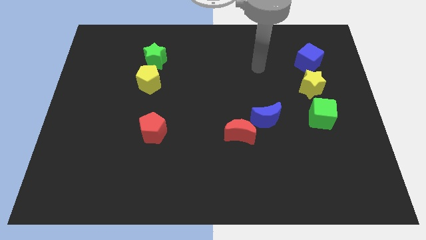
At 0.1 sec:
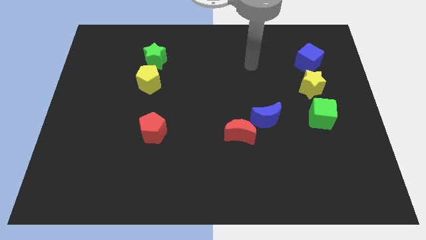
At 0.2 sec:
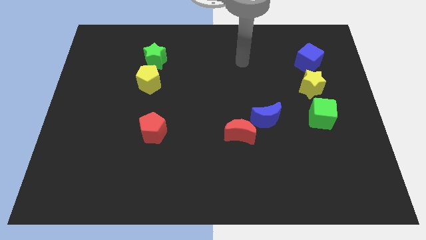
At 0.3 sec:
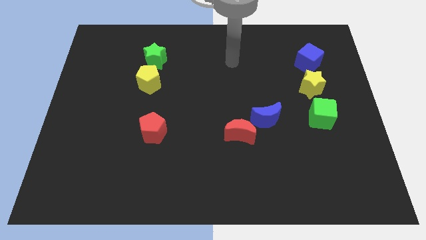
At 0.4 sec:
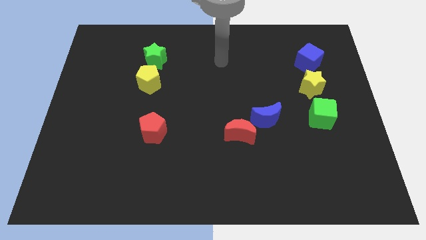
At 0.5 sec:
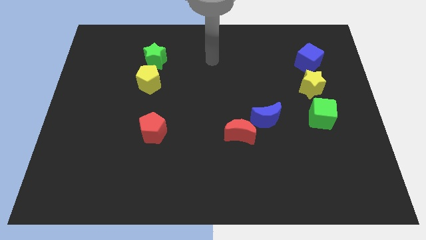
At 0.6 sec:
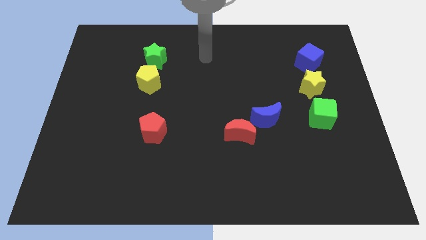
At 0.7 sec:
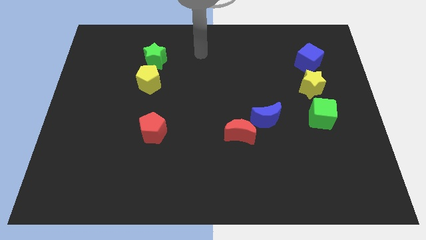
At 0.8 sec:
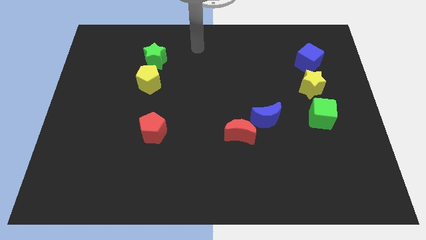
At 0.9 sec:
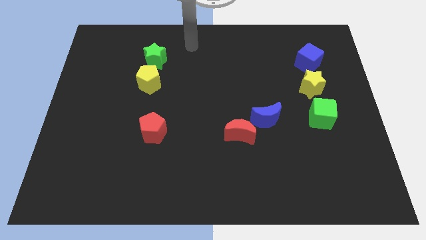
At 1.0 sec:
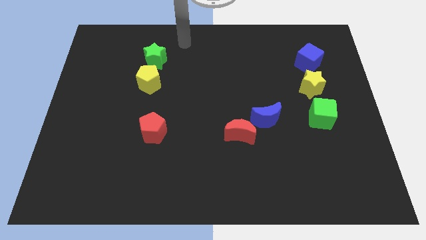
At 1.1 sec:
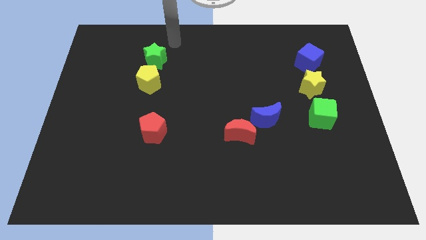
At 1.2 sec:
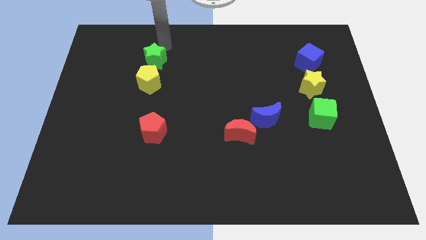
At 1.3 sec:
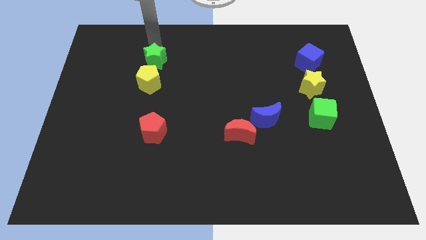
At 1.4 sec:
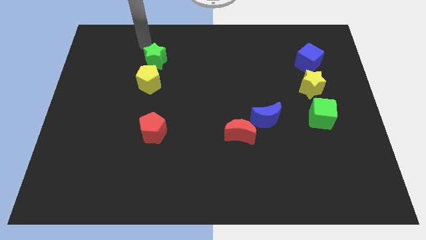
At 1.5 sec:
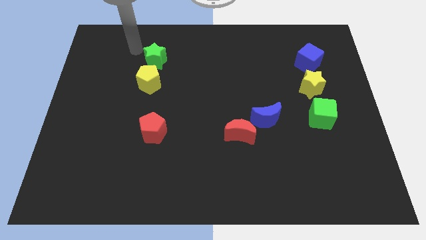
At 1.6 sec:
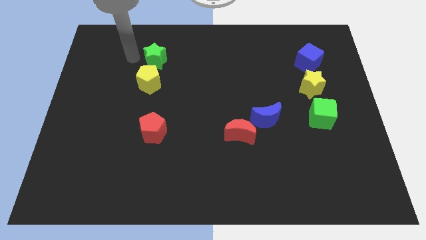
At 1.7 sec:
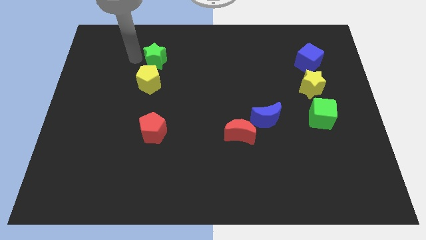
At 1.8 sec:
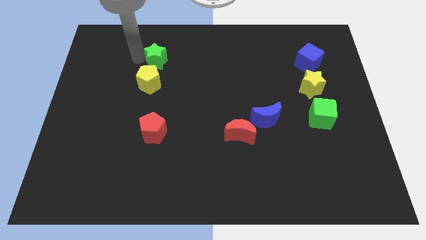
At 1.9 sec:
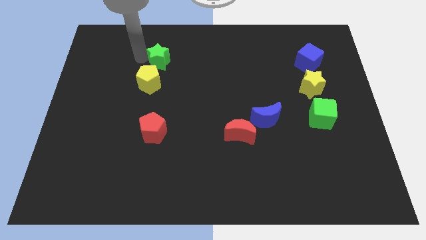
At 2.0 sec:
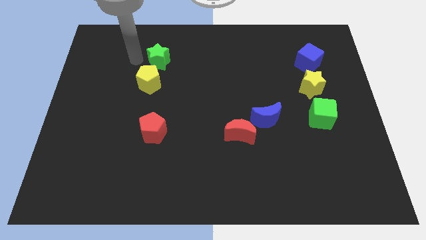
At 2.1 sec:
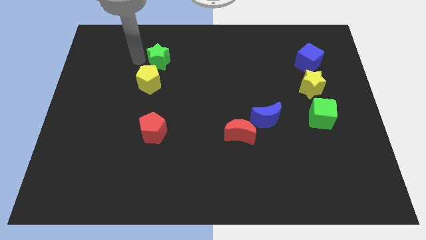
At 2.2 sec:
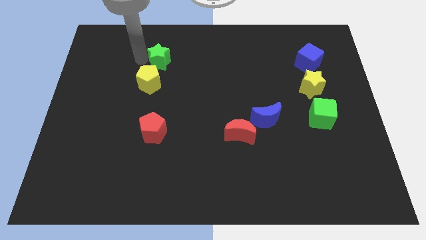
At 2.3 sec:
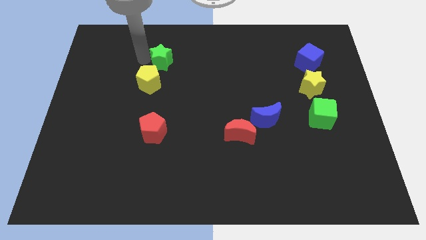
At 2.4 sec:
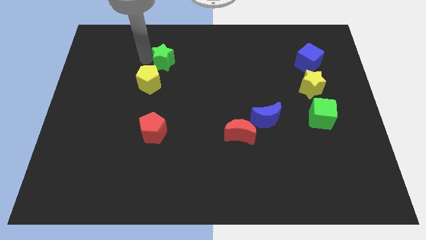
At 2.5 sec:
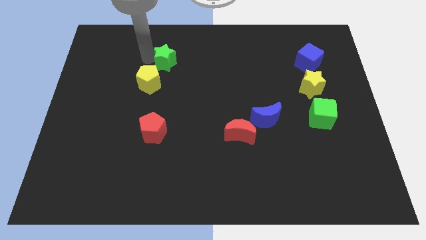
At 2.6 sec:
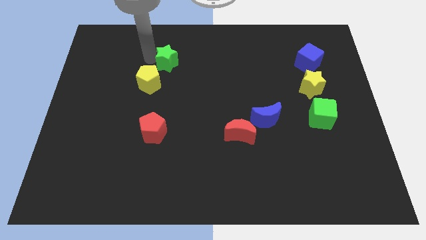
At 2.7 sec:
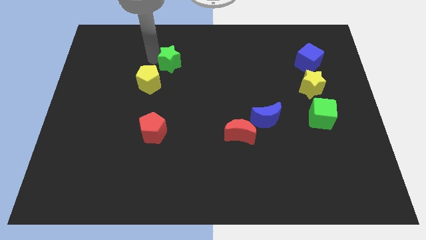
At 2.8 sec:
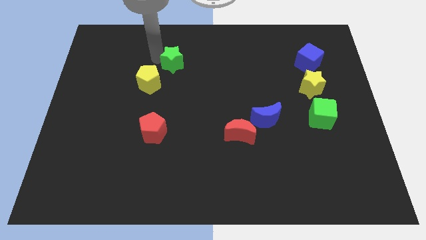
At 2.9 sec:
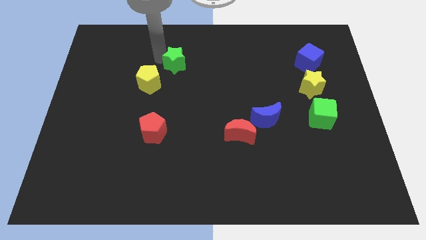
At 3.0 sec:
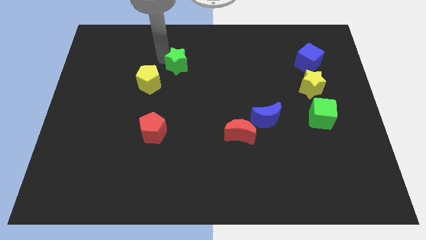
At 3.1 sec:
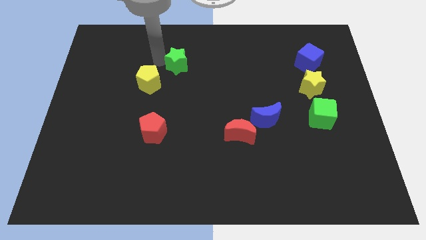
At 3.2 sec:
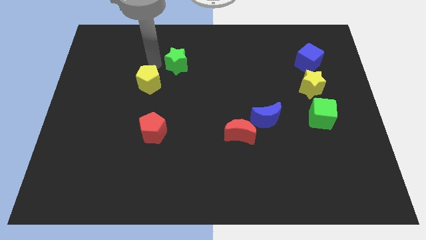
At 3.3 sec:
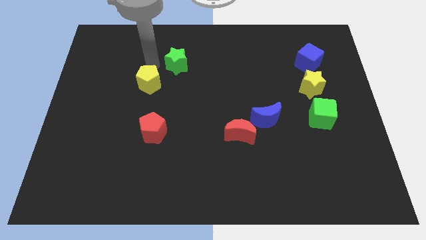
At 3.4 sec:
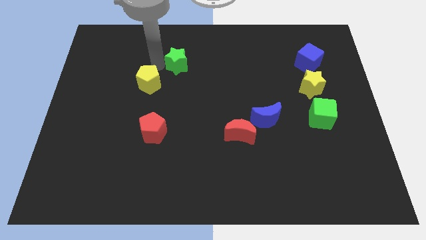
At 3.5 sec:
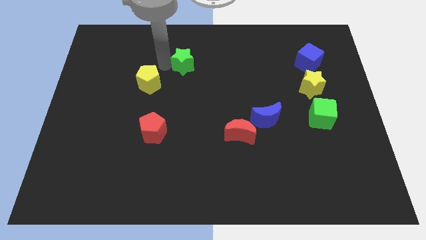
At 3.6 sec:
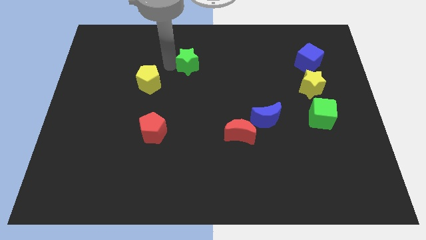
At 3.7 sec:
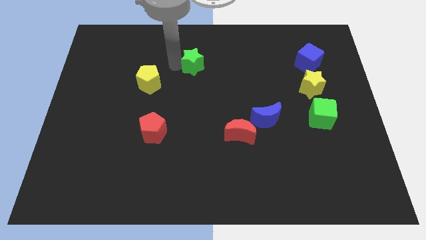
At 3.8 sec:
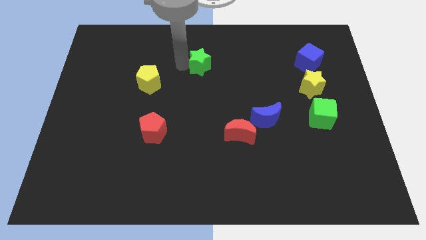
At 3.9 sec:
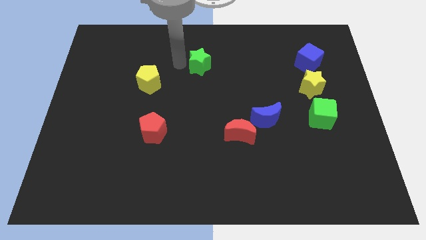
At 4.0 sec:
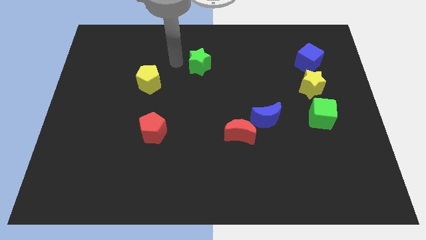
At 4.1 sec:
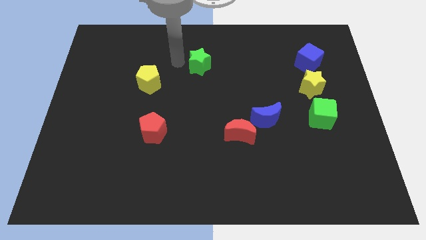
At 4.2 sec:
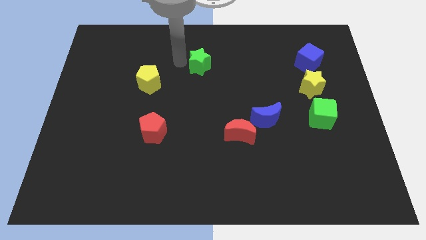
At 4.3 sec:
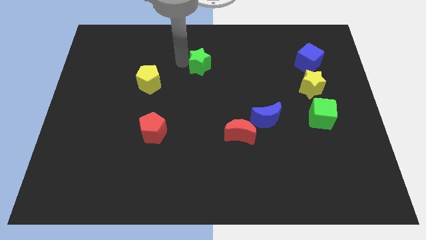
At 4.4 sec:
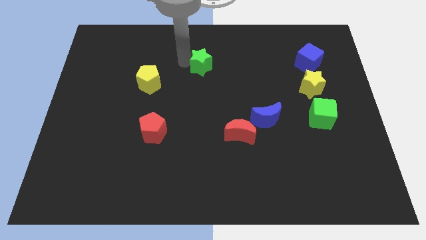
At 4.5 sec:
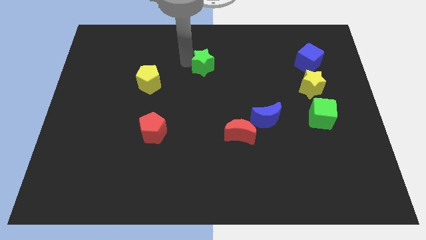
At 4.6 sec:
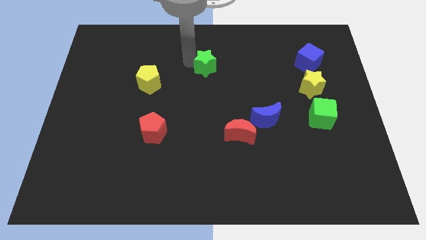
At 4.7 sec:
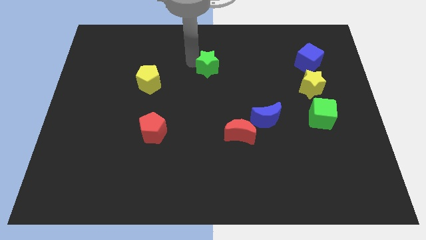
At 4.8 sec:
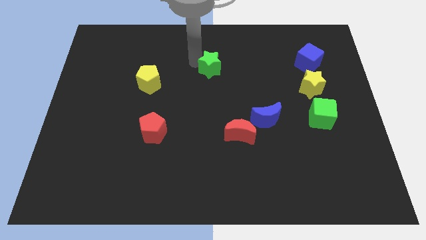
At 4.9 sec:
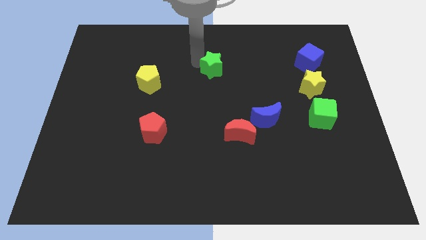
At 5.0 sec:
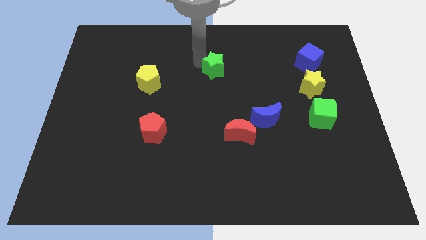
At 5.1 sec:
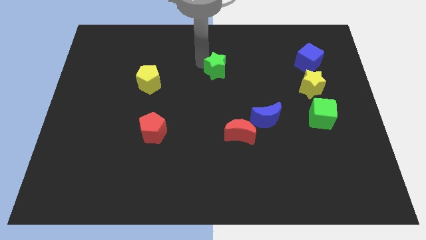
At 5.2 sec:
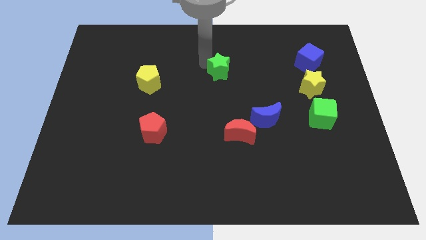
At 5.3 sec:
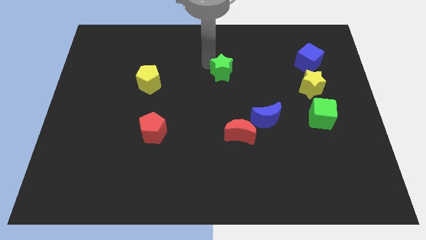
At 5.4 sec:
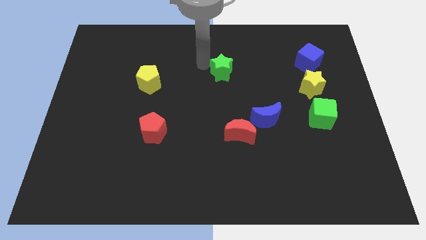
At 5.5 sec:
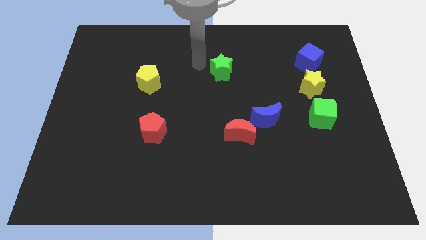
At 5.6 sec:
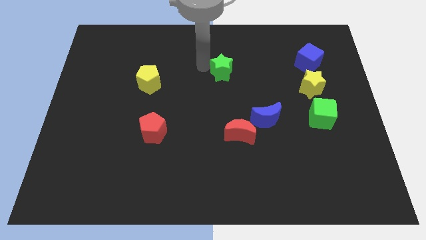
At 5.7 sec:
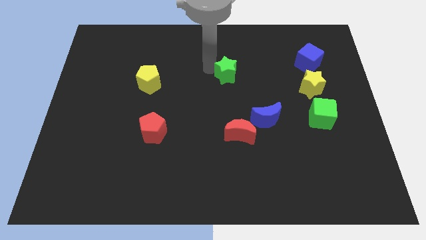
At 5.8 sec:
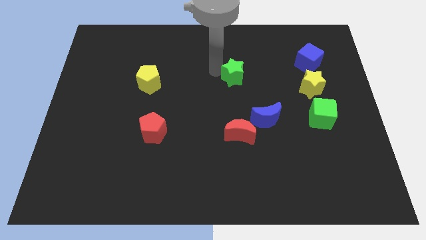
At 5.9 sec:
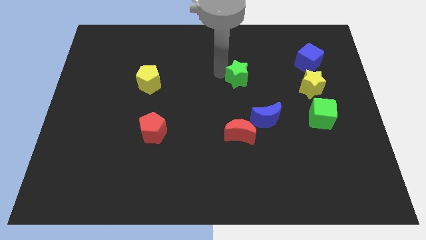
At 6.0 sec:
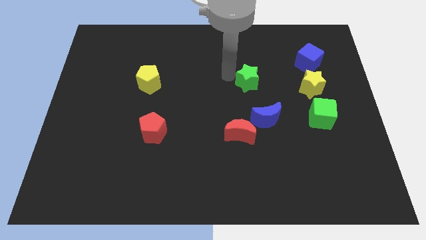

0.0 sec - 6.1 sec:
slide the green star to the left side of the yellow star

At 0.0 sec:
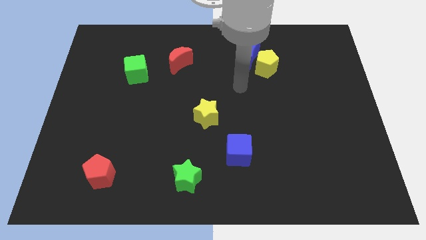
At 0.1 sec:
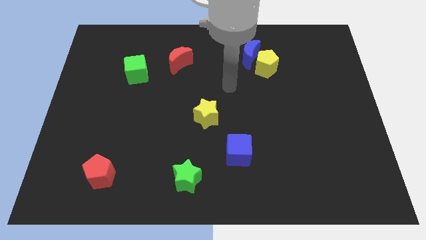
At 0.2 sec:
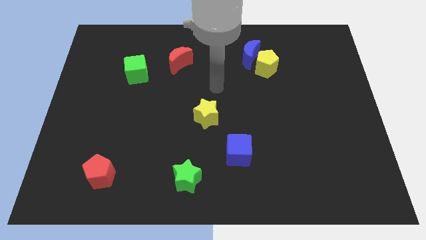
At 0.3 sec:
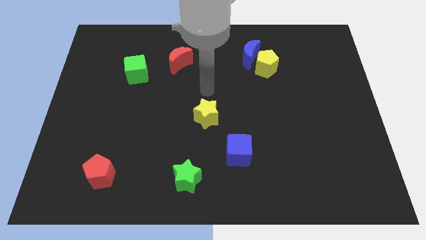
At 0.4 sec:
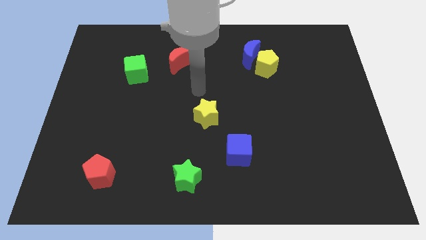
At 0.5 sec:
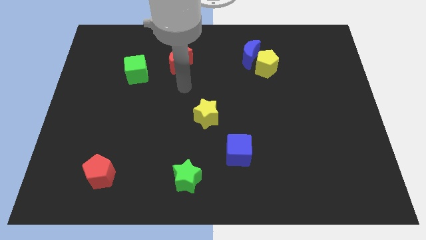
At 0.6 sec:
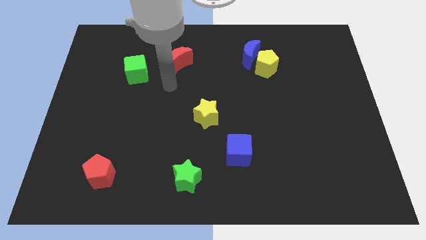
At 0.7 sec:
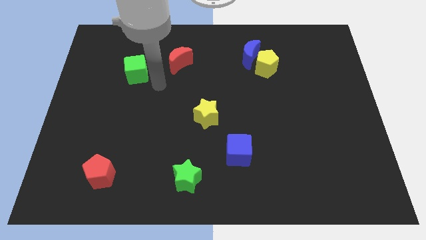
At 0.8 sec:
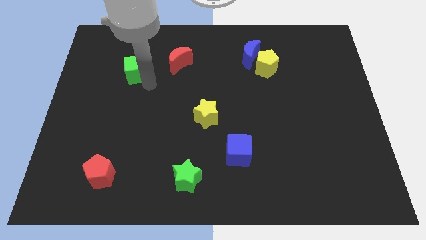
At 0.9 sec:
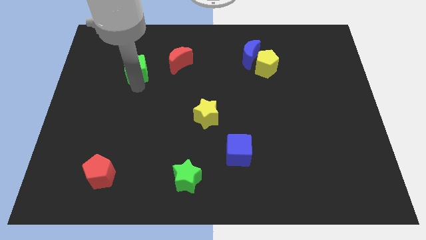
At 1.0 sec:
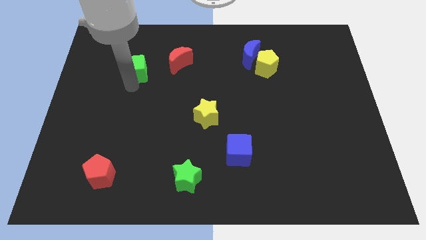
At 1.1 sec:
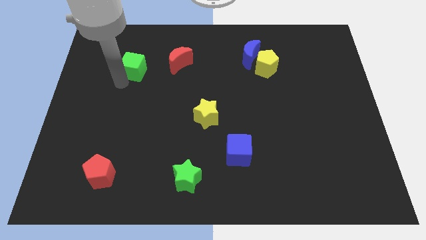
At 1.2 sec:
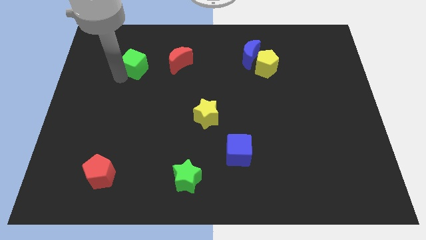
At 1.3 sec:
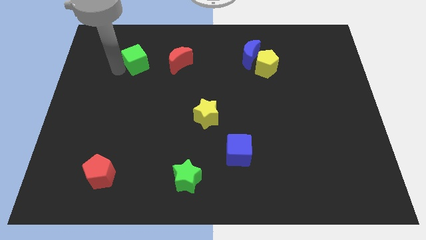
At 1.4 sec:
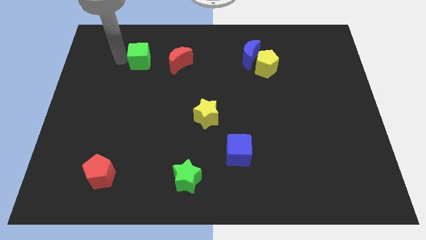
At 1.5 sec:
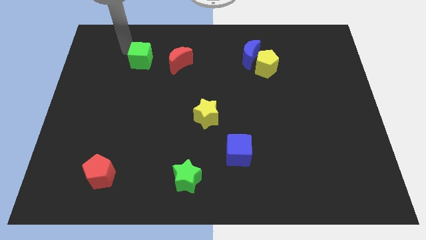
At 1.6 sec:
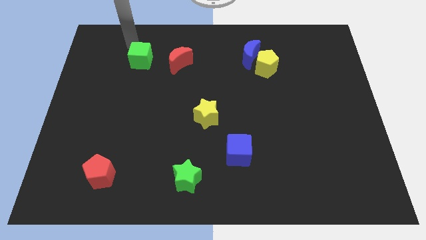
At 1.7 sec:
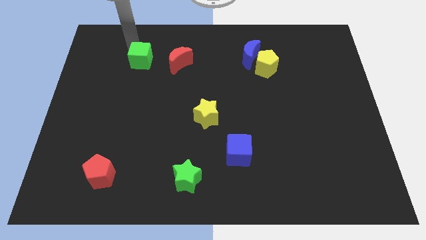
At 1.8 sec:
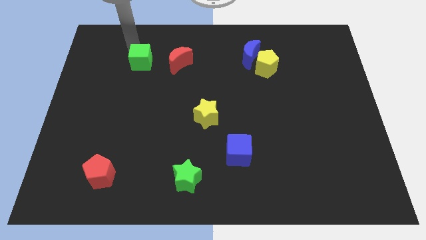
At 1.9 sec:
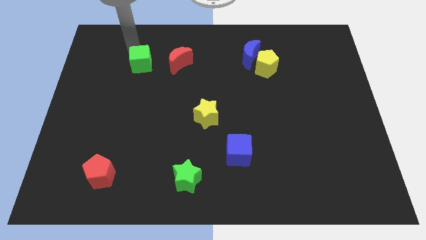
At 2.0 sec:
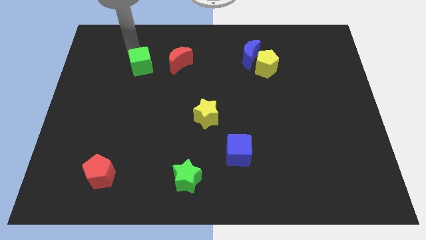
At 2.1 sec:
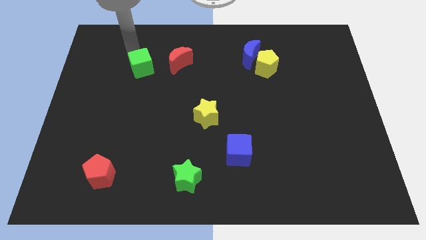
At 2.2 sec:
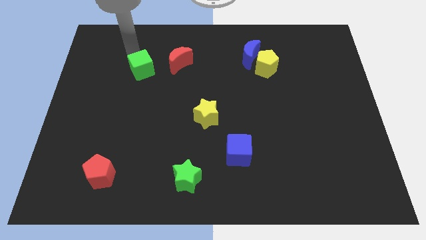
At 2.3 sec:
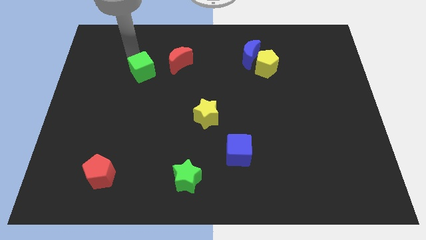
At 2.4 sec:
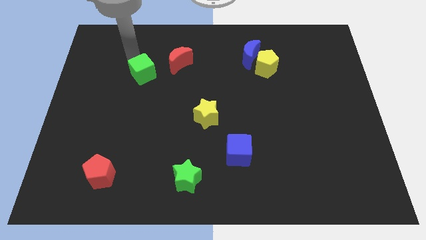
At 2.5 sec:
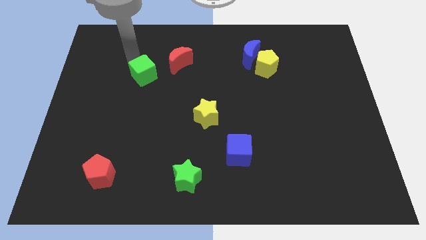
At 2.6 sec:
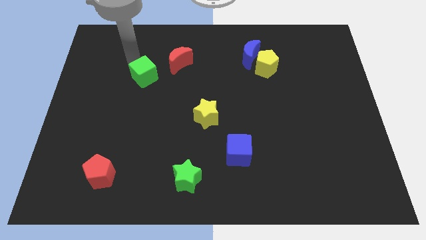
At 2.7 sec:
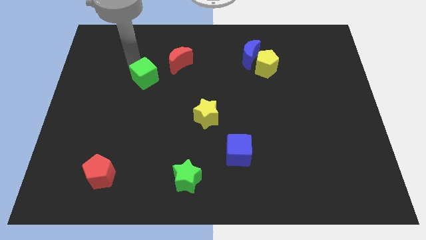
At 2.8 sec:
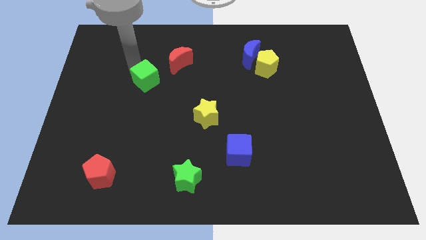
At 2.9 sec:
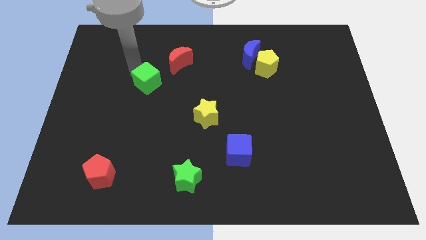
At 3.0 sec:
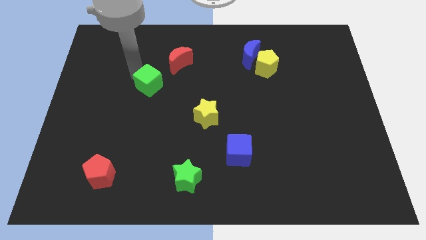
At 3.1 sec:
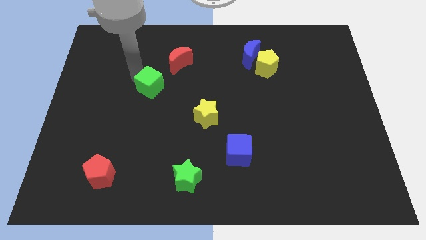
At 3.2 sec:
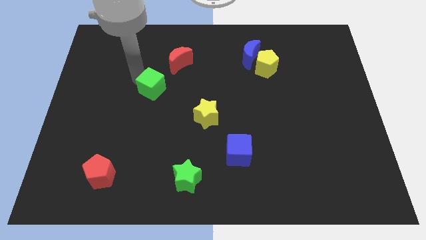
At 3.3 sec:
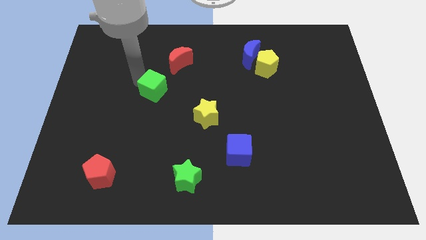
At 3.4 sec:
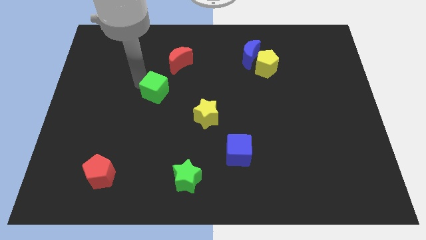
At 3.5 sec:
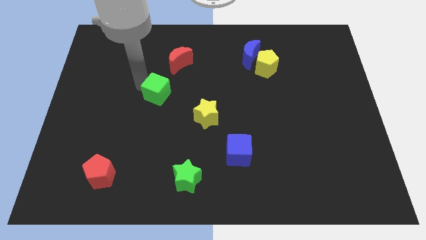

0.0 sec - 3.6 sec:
move the green cube to the bottom of the red moon
